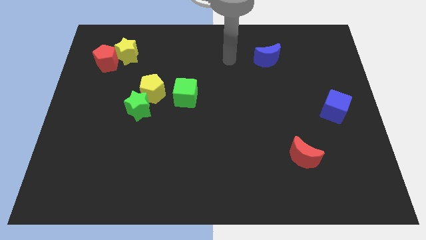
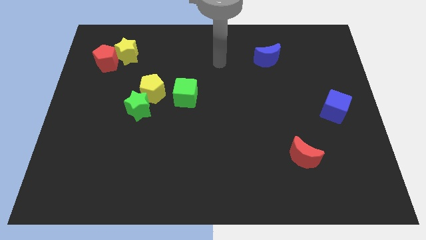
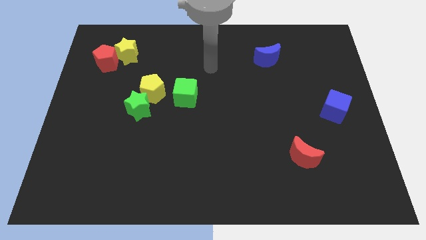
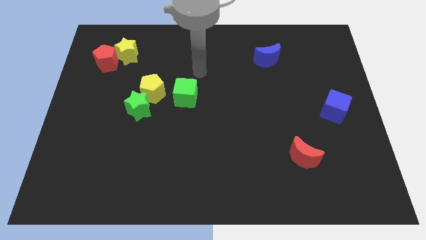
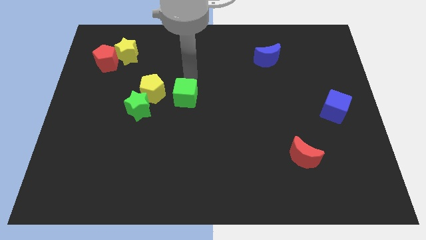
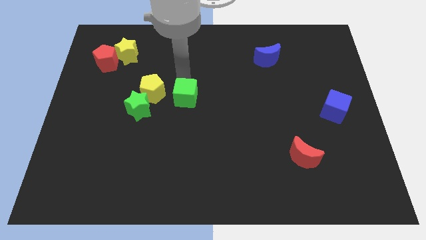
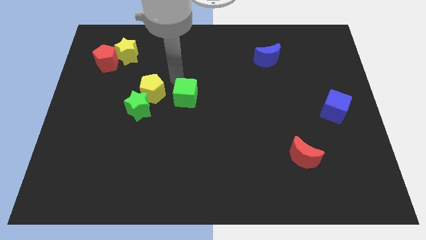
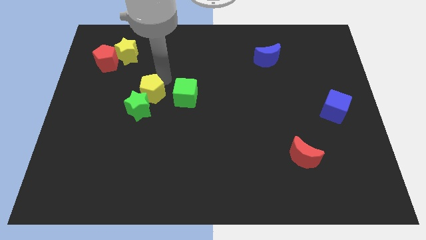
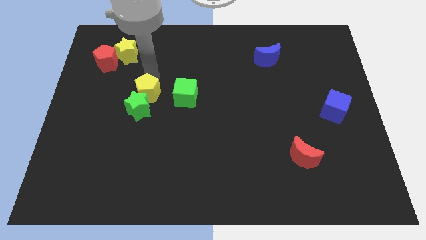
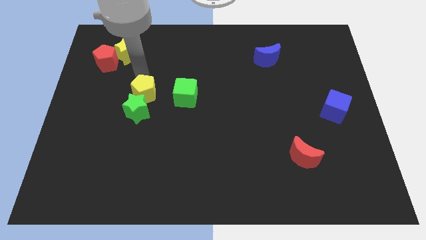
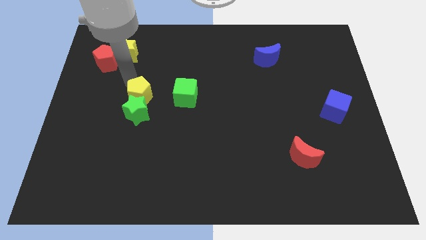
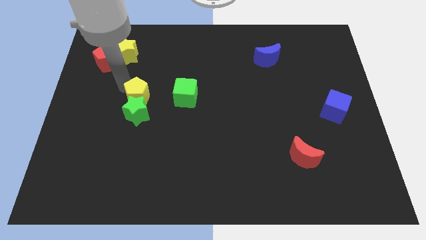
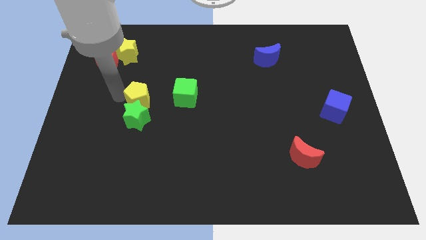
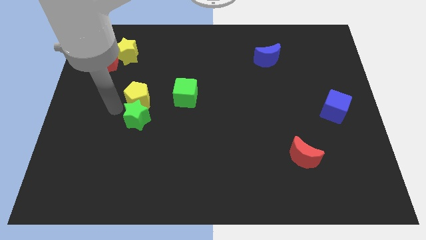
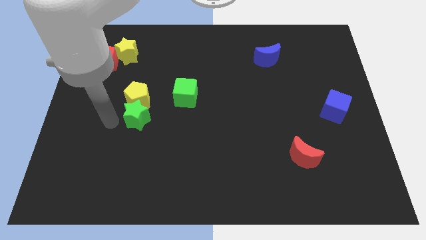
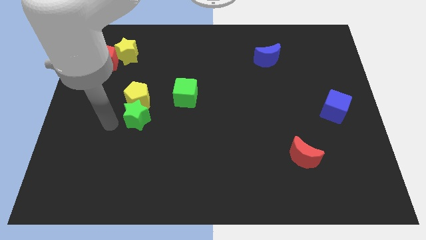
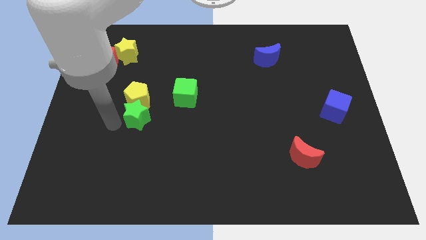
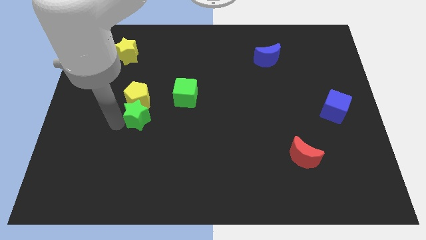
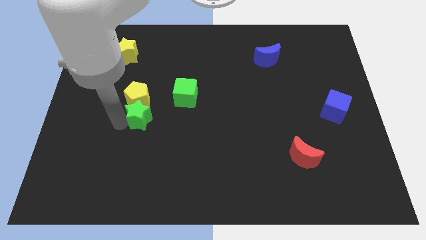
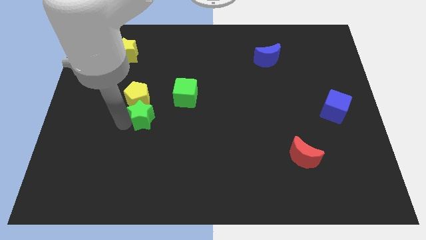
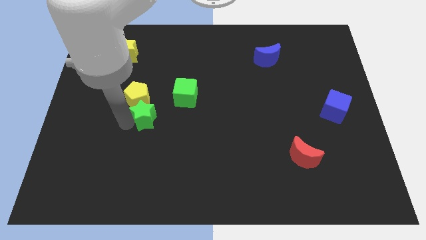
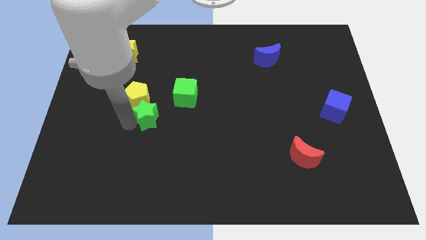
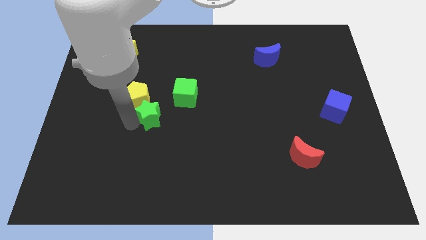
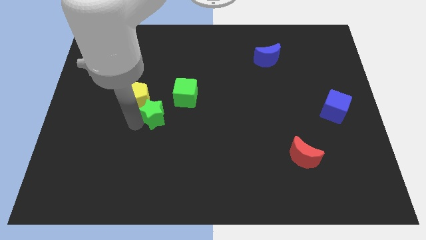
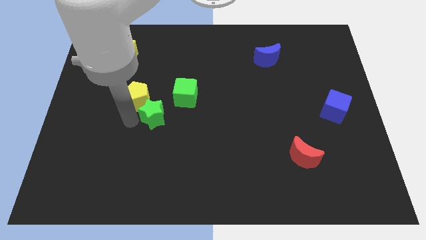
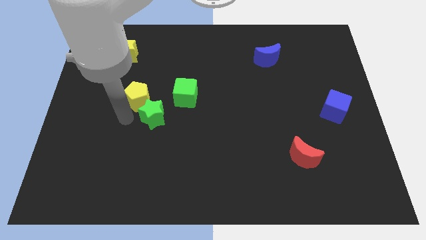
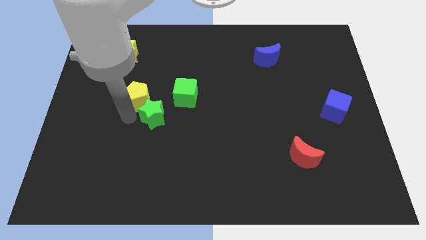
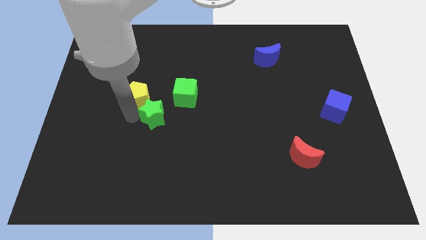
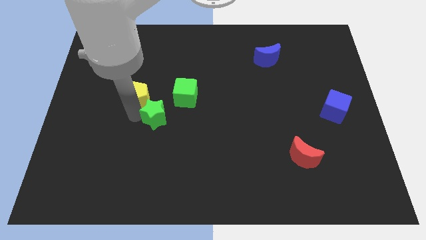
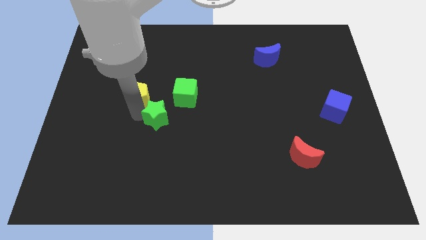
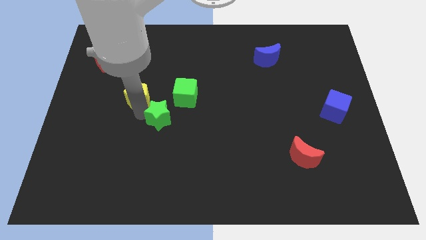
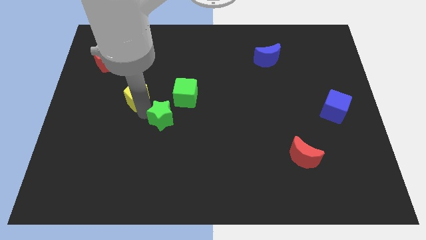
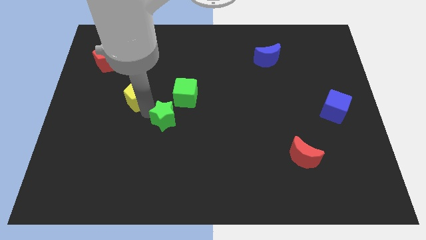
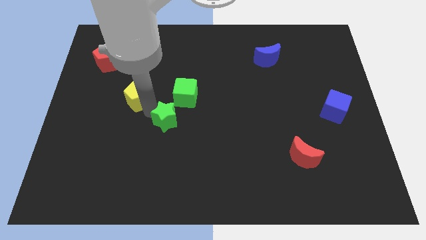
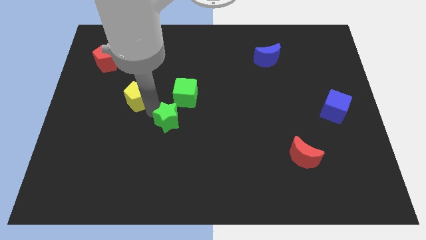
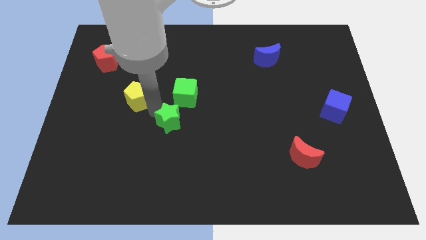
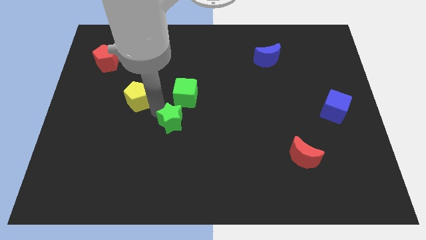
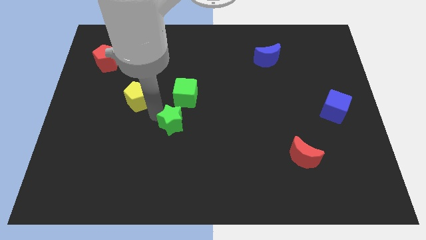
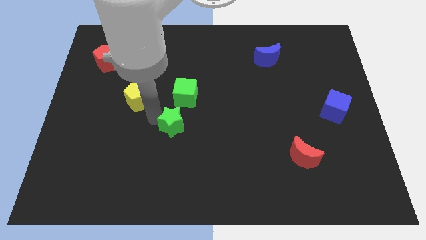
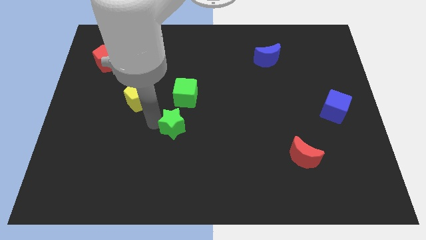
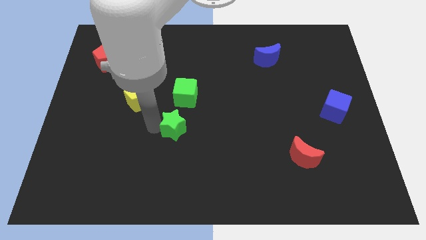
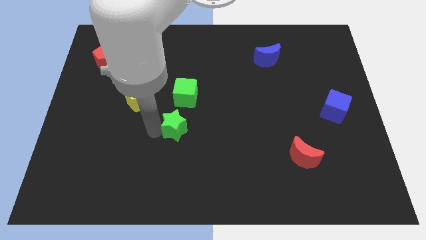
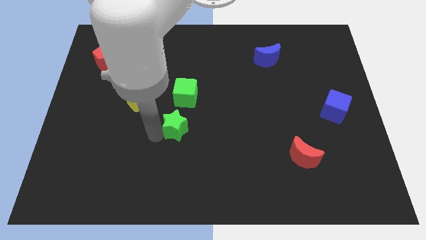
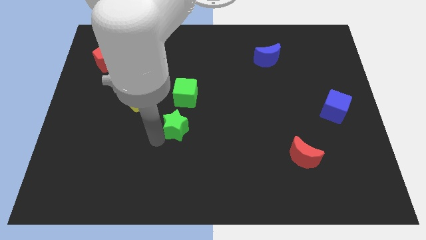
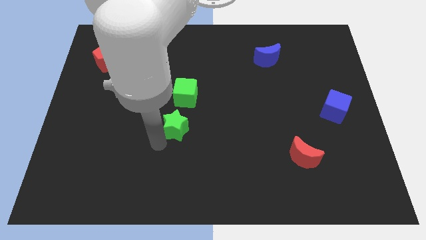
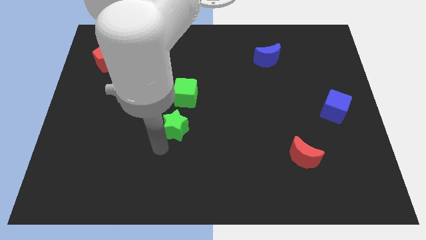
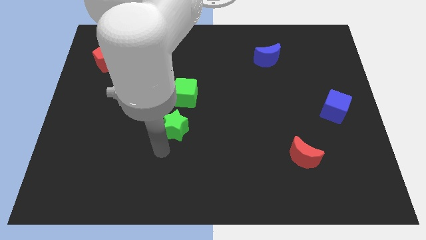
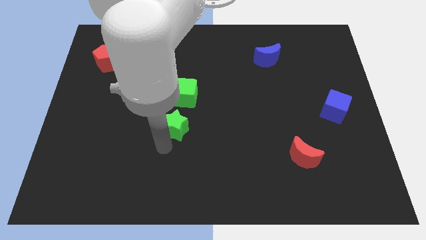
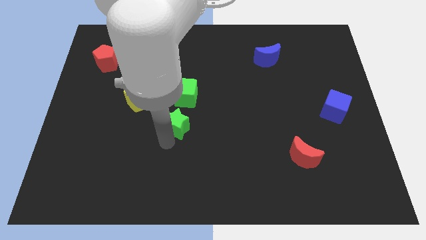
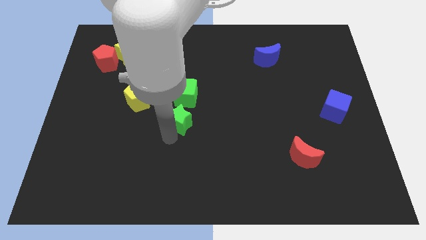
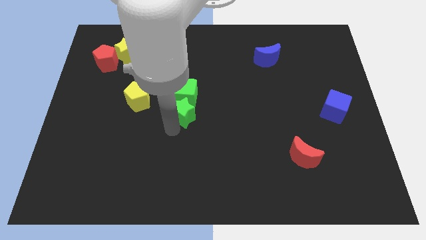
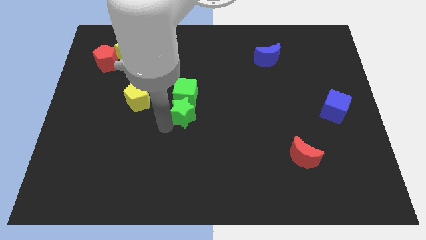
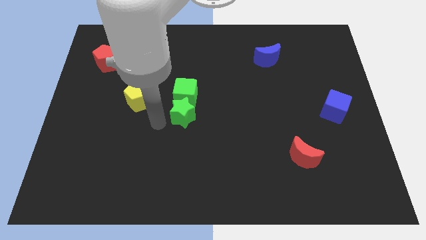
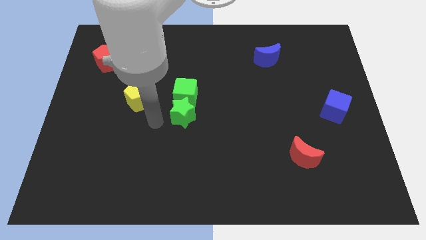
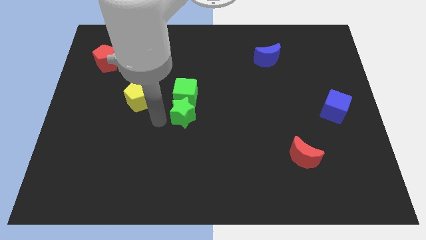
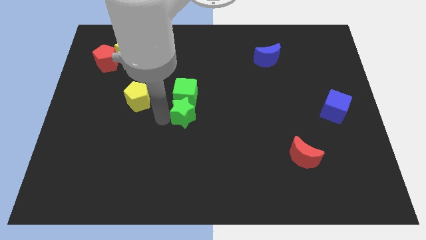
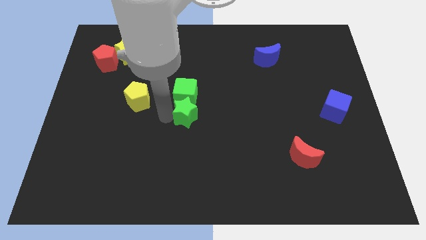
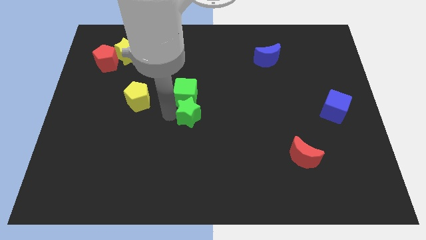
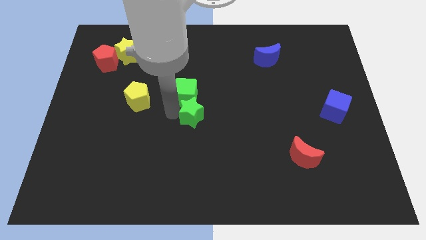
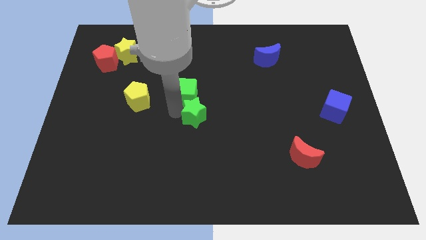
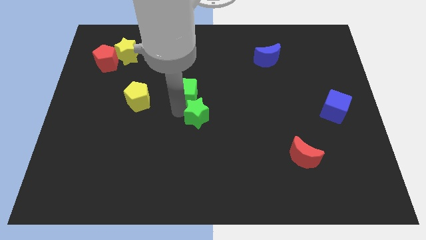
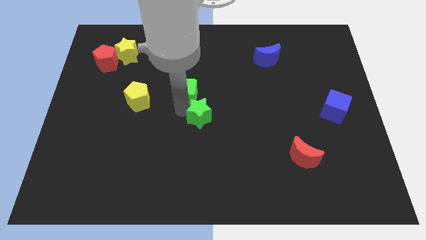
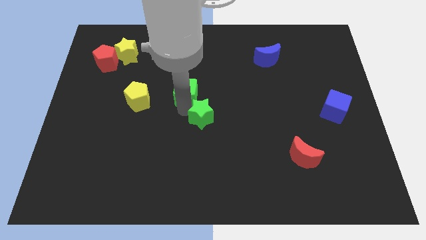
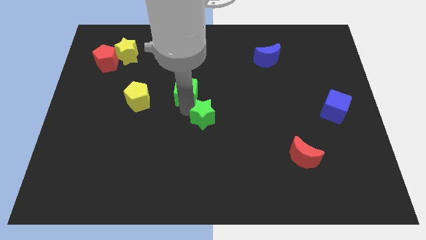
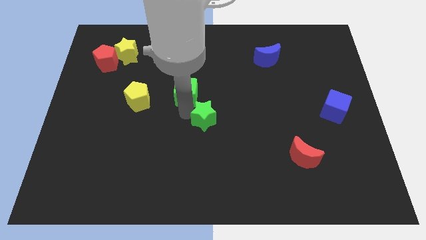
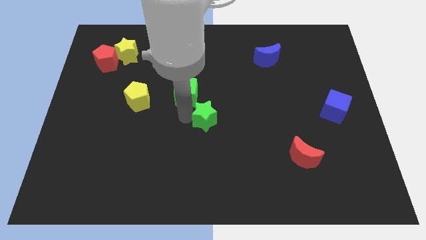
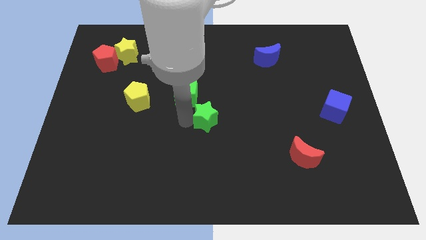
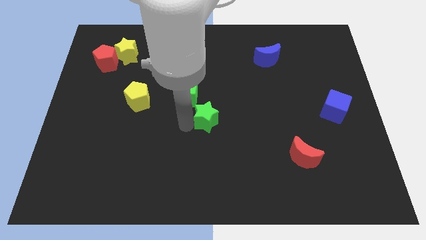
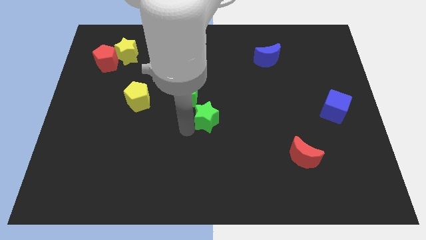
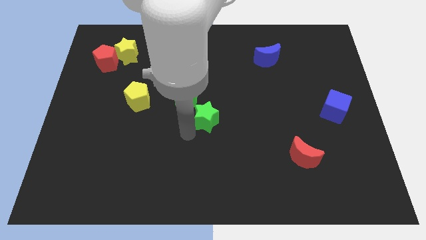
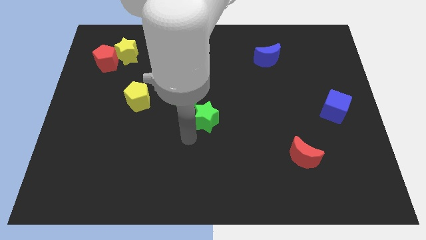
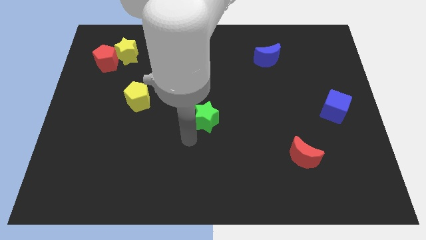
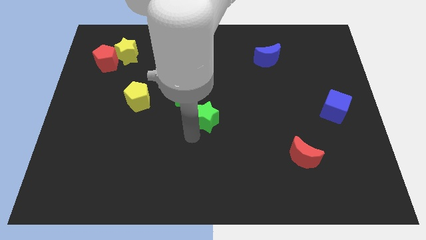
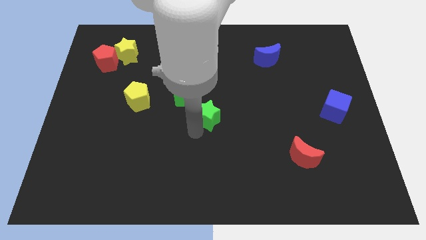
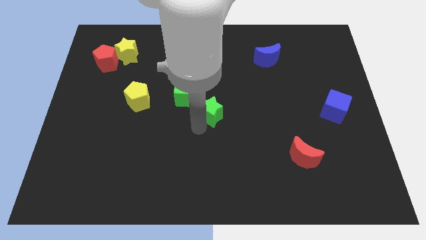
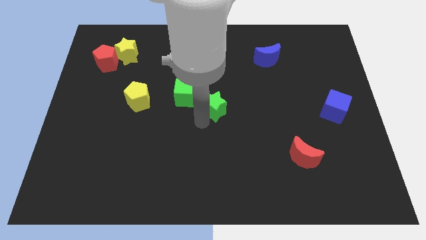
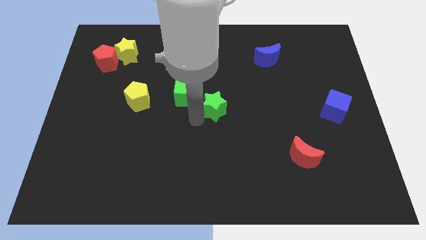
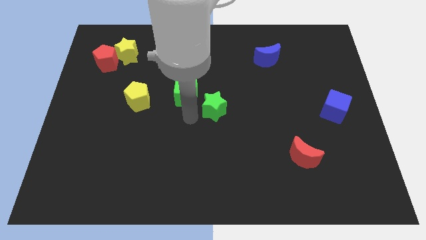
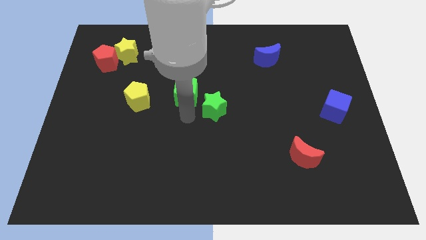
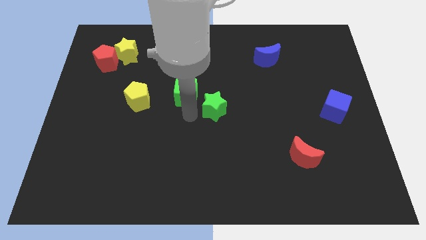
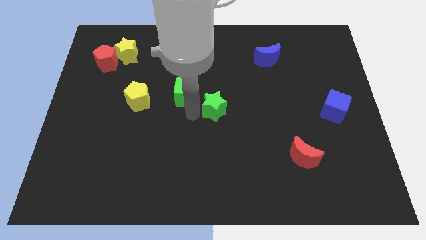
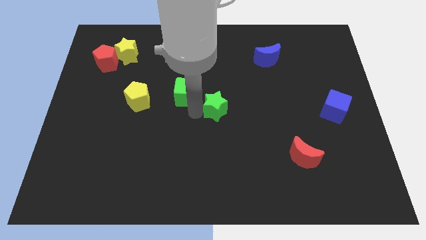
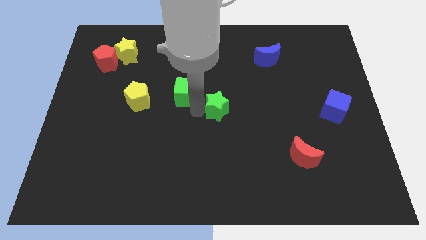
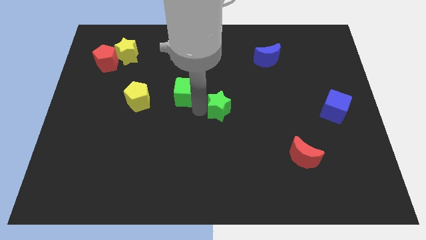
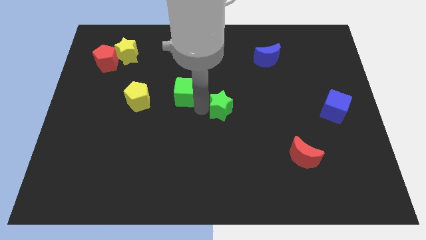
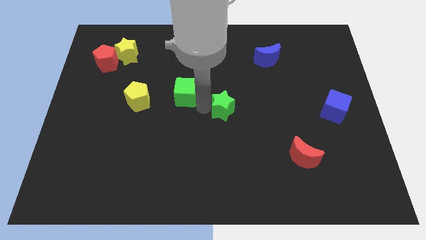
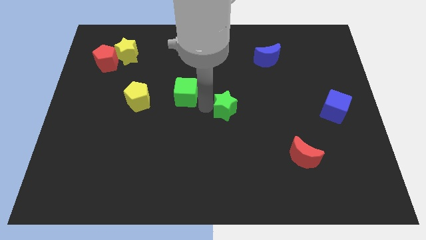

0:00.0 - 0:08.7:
push the green star right
